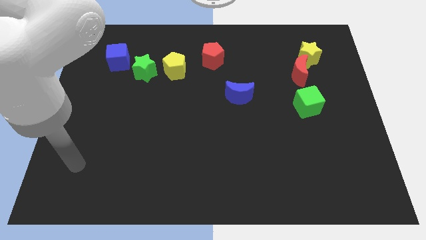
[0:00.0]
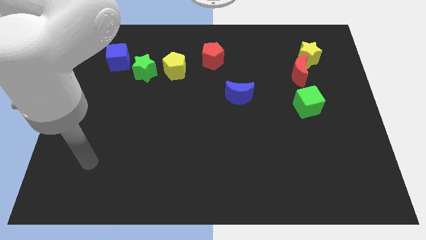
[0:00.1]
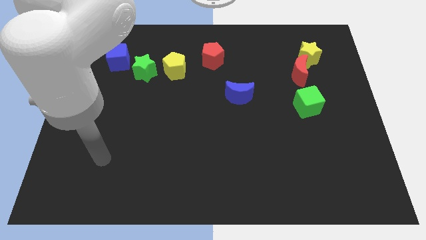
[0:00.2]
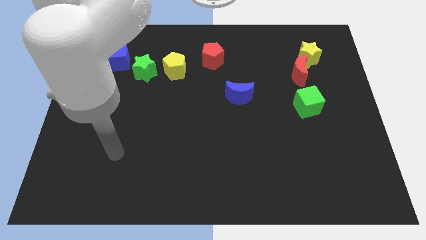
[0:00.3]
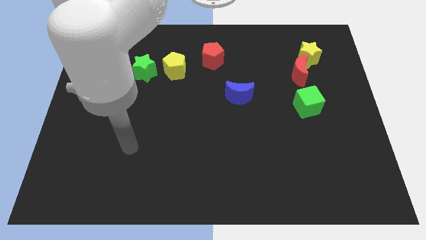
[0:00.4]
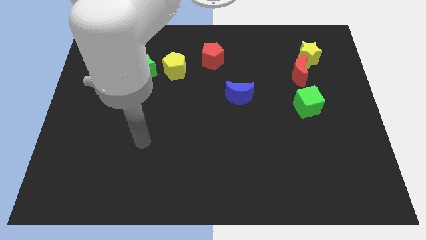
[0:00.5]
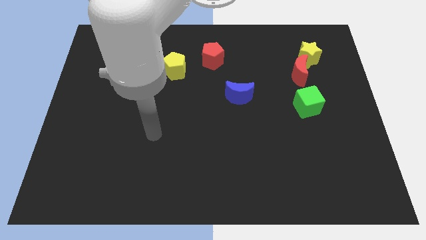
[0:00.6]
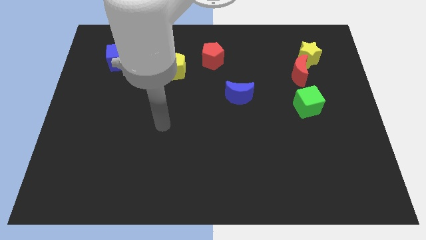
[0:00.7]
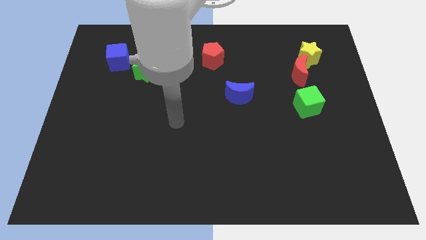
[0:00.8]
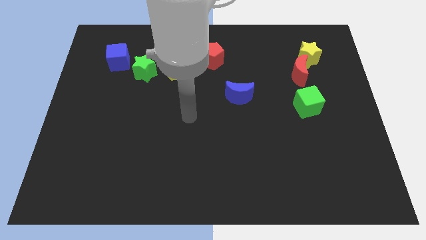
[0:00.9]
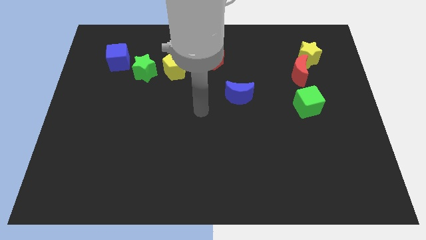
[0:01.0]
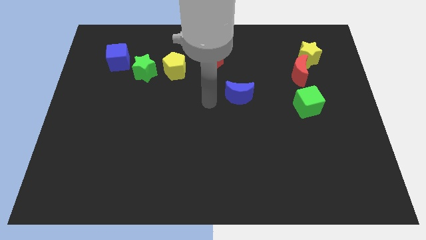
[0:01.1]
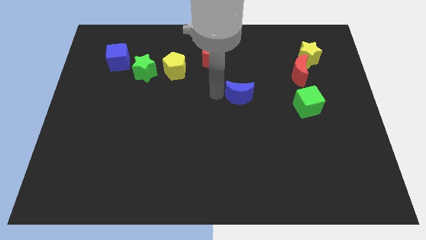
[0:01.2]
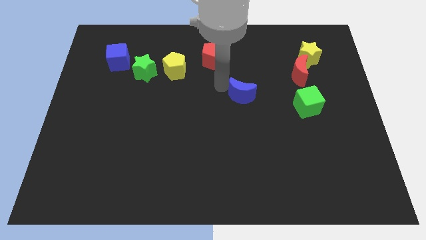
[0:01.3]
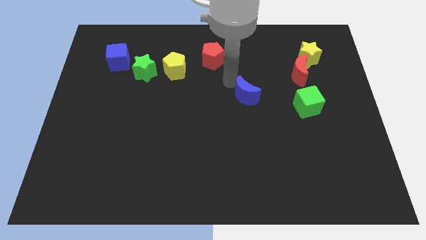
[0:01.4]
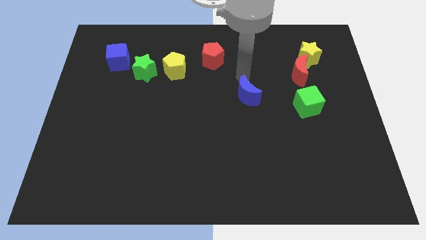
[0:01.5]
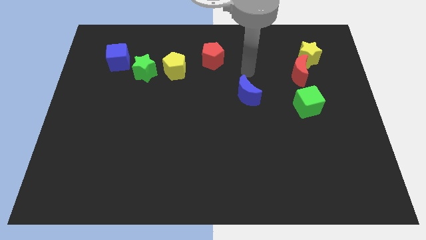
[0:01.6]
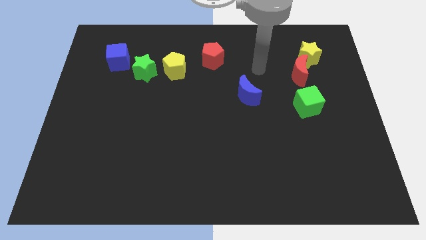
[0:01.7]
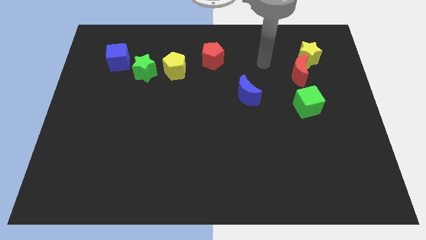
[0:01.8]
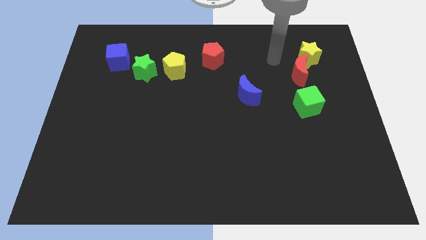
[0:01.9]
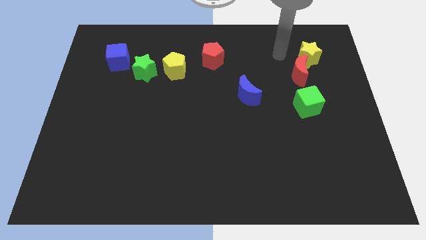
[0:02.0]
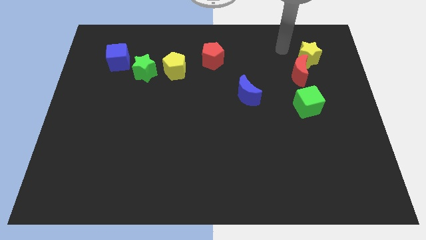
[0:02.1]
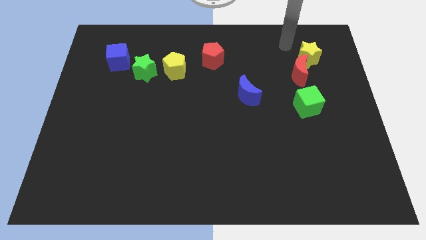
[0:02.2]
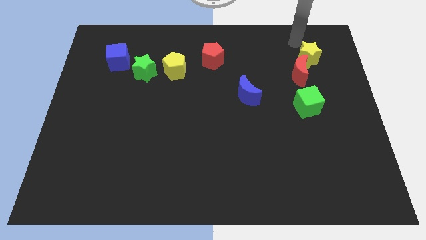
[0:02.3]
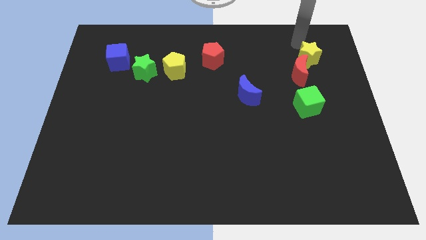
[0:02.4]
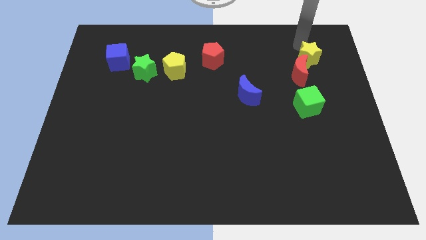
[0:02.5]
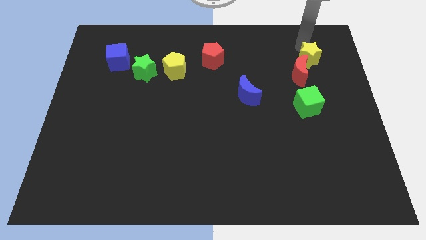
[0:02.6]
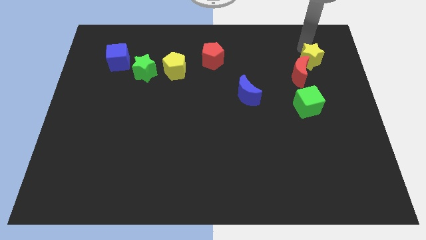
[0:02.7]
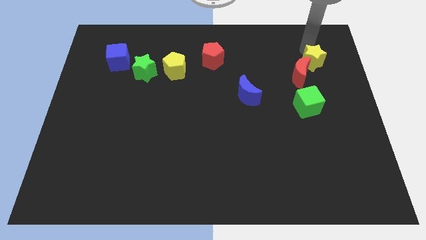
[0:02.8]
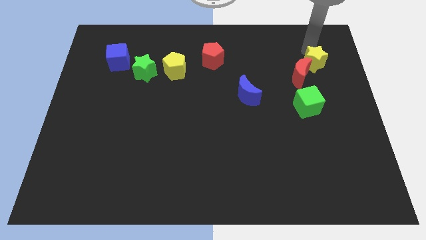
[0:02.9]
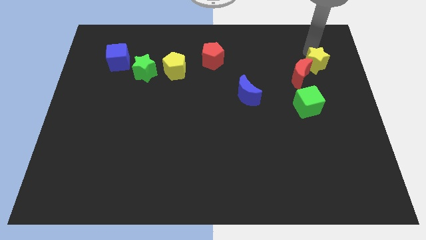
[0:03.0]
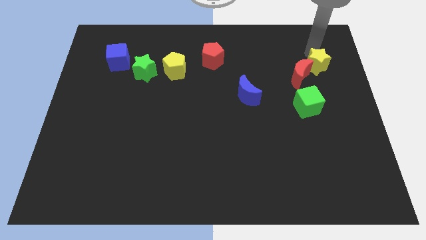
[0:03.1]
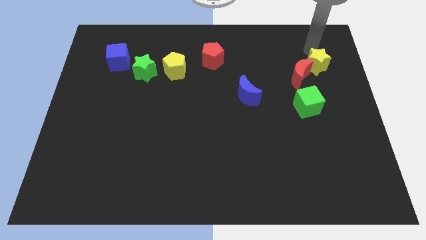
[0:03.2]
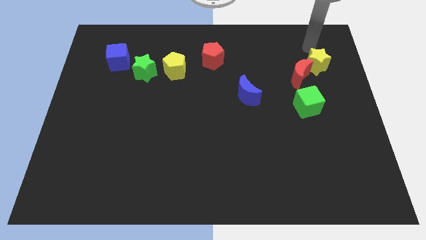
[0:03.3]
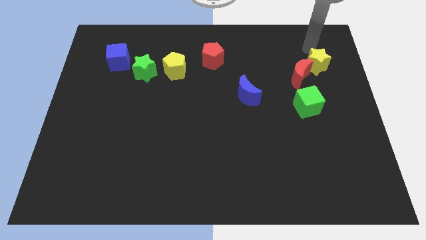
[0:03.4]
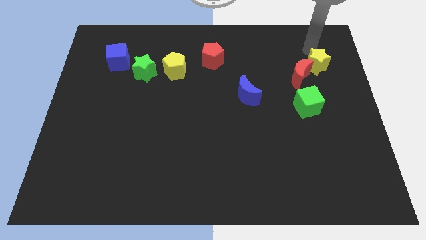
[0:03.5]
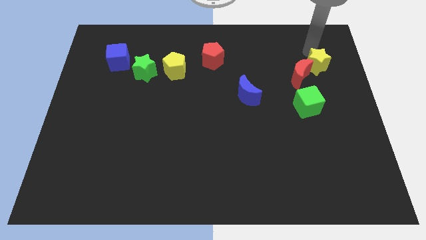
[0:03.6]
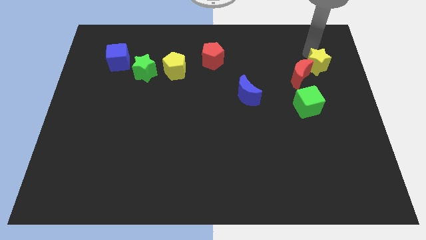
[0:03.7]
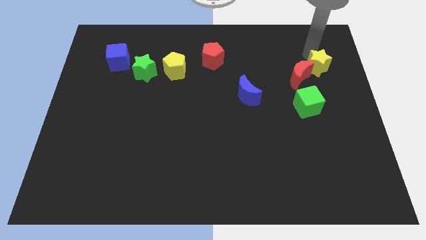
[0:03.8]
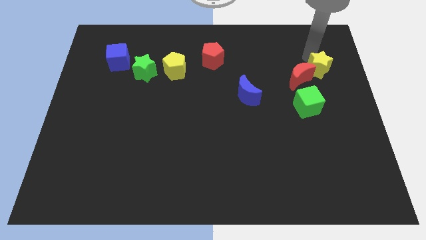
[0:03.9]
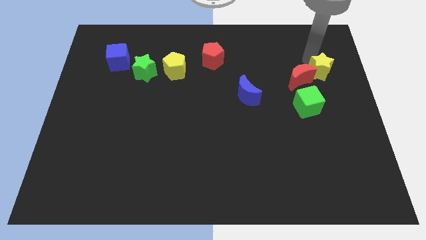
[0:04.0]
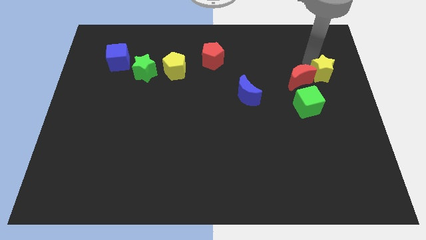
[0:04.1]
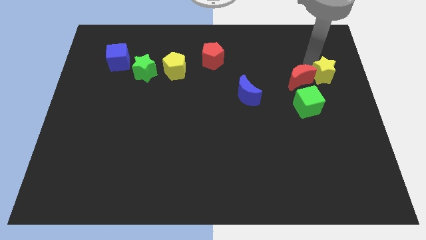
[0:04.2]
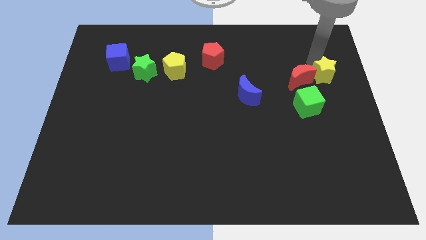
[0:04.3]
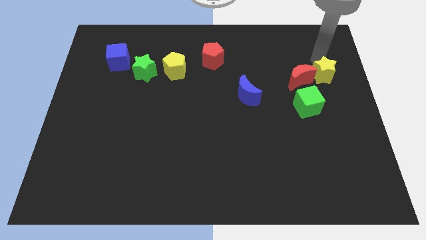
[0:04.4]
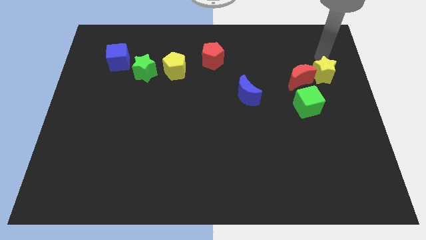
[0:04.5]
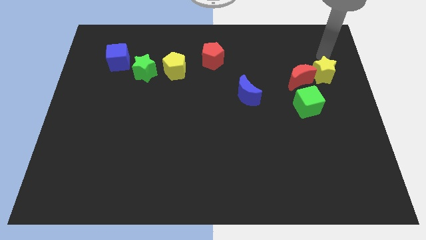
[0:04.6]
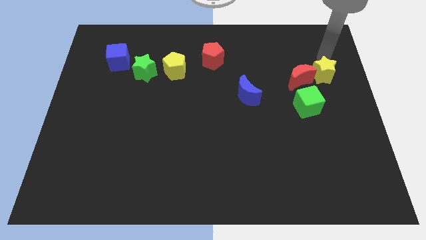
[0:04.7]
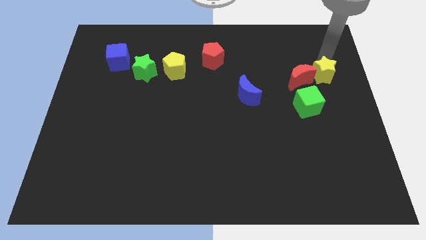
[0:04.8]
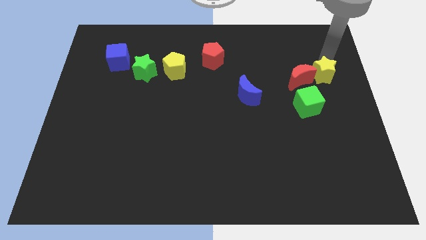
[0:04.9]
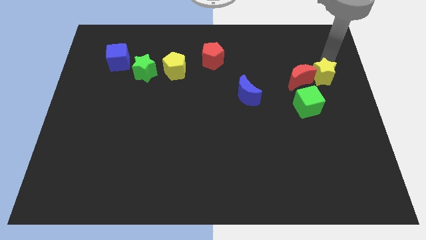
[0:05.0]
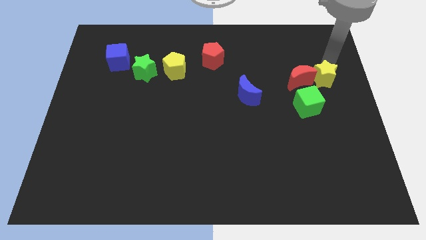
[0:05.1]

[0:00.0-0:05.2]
slightly move the yellow star down

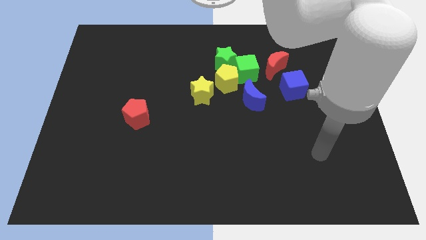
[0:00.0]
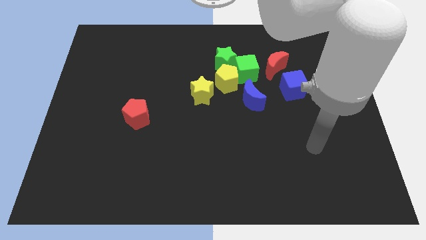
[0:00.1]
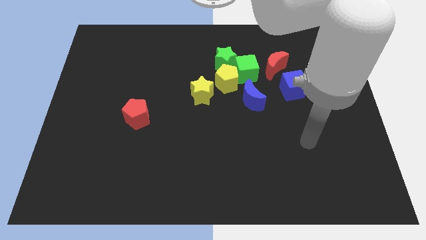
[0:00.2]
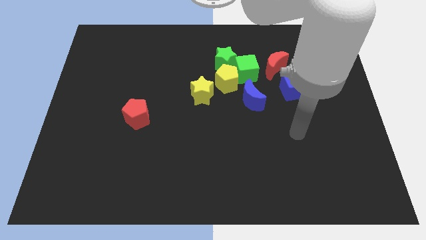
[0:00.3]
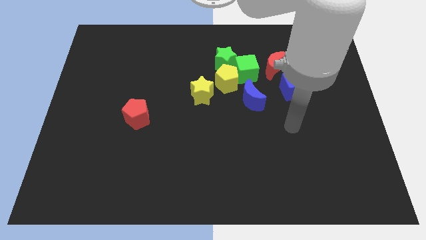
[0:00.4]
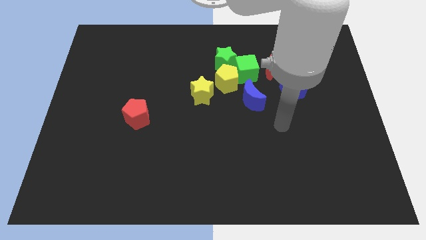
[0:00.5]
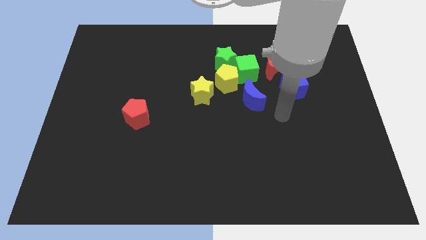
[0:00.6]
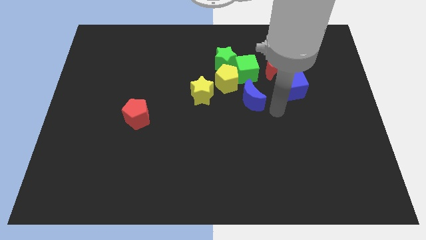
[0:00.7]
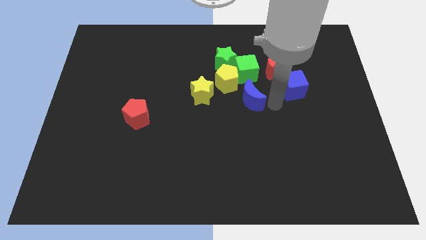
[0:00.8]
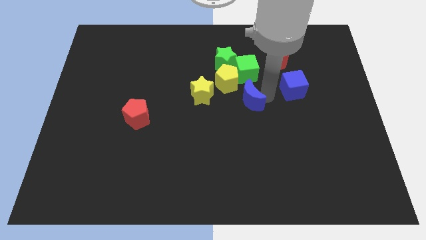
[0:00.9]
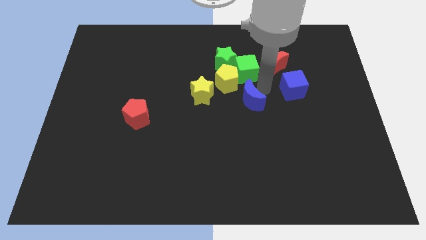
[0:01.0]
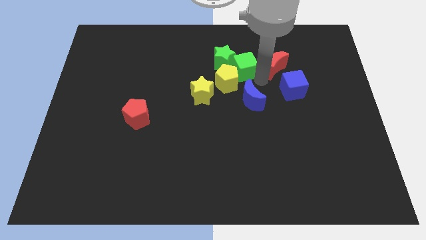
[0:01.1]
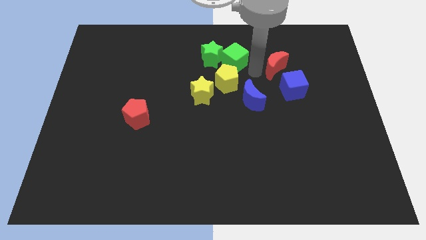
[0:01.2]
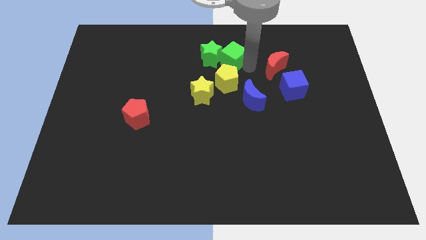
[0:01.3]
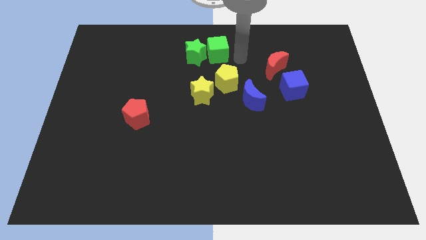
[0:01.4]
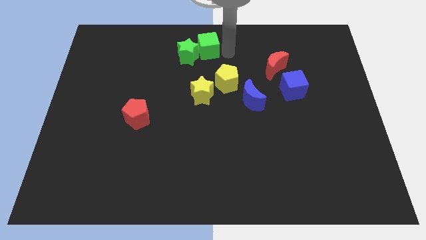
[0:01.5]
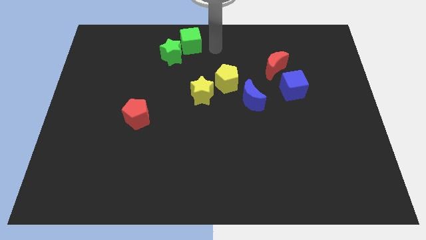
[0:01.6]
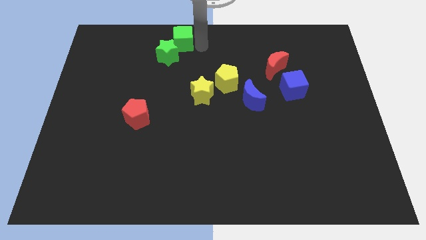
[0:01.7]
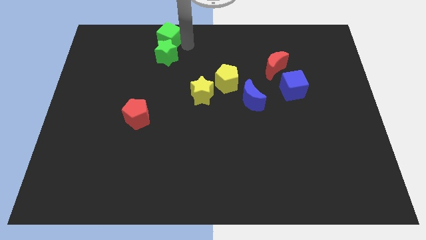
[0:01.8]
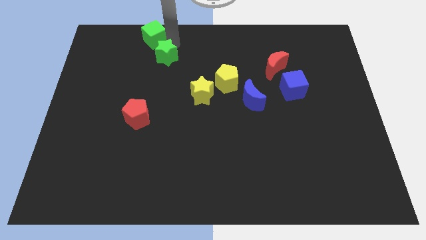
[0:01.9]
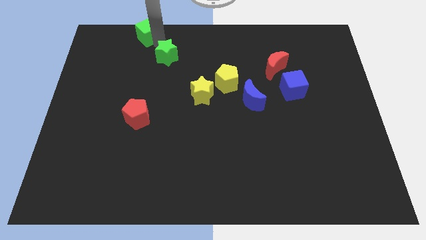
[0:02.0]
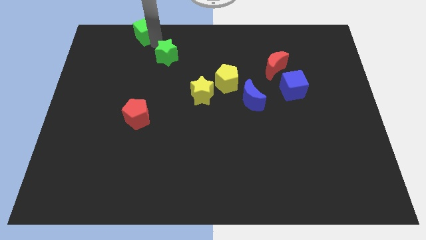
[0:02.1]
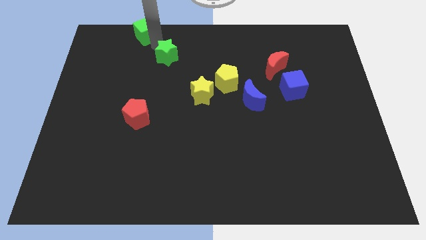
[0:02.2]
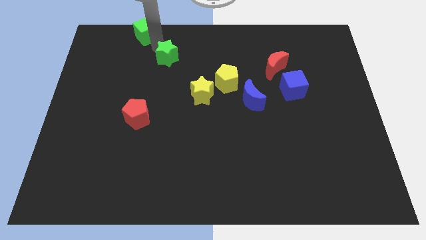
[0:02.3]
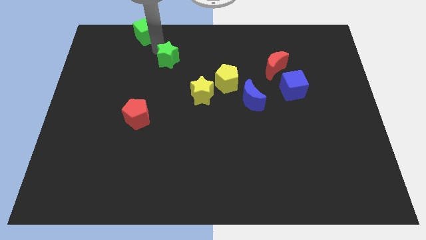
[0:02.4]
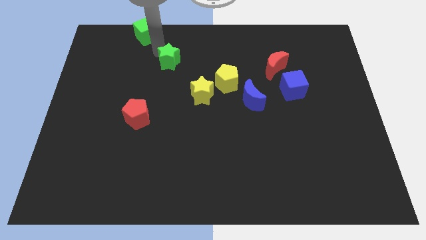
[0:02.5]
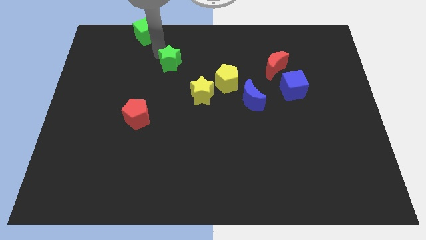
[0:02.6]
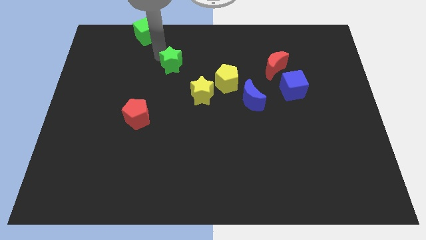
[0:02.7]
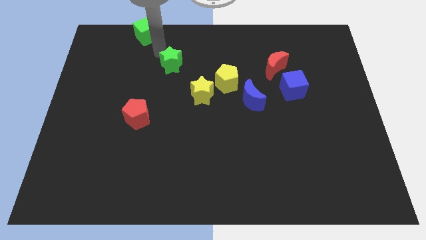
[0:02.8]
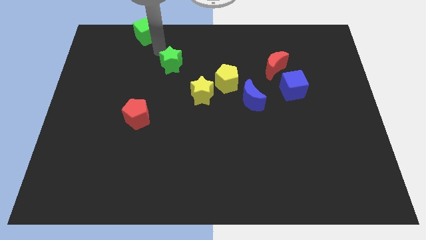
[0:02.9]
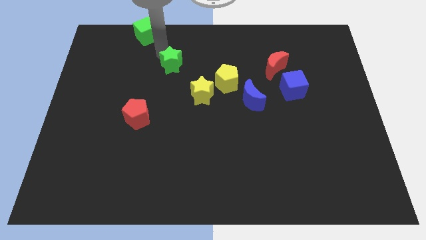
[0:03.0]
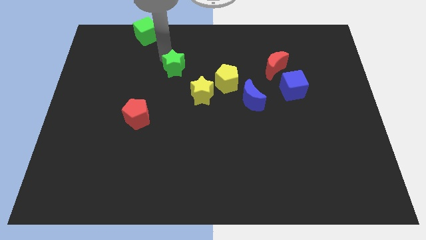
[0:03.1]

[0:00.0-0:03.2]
slightly push the green star diagonally downwards and to the left
